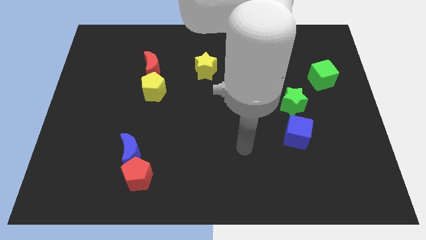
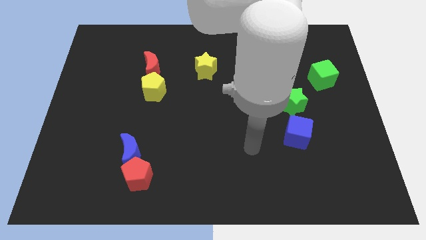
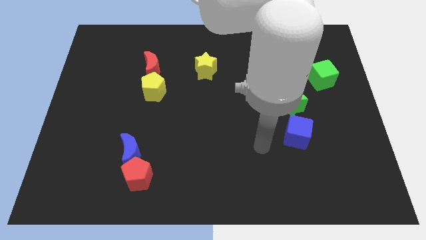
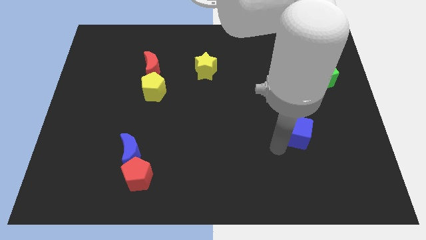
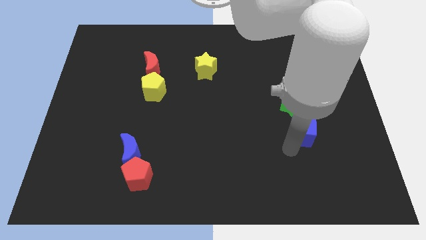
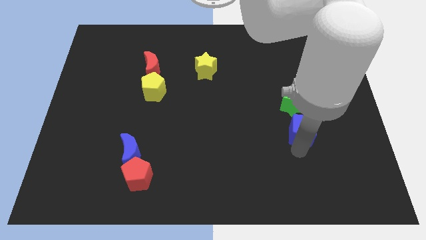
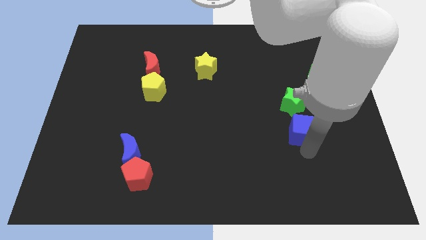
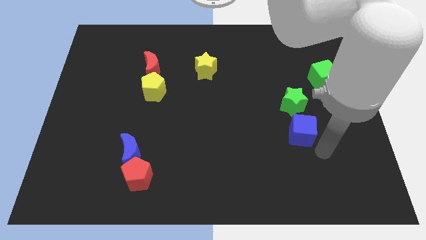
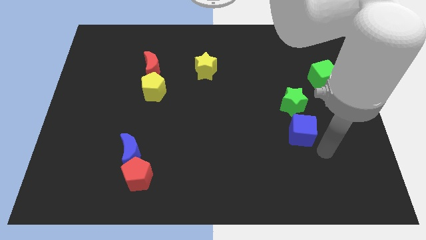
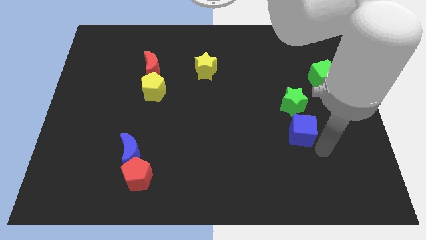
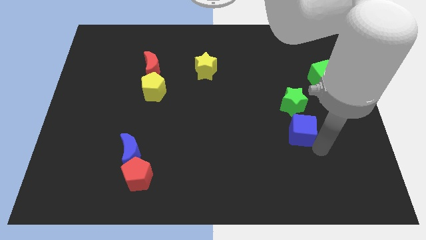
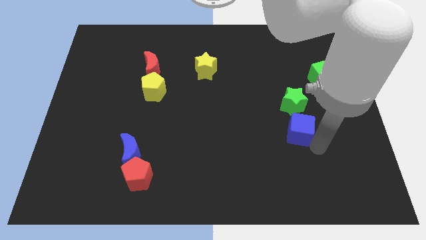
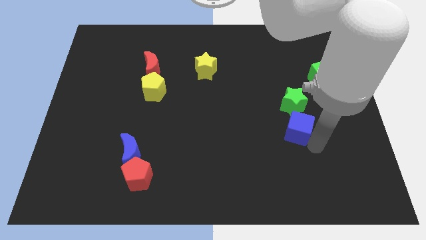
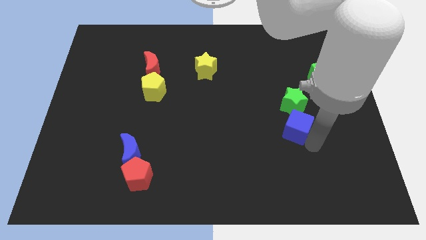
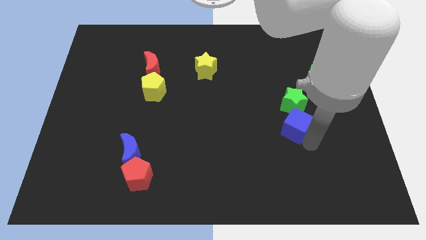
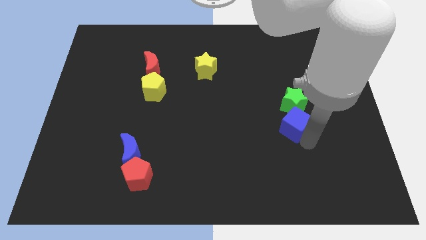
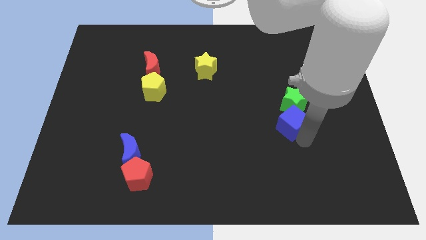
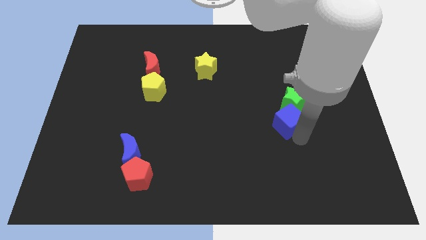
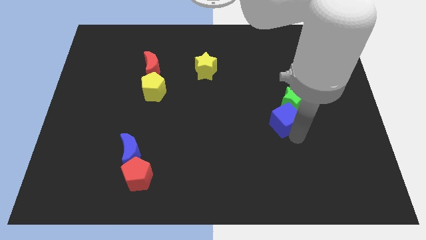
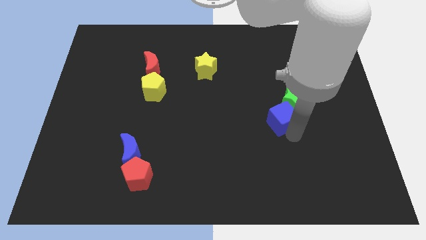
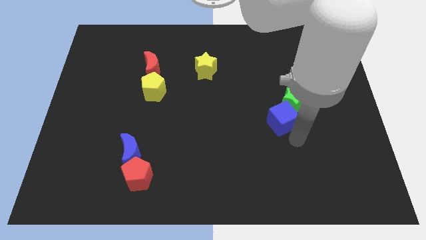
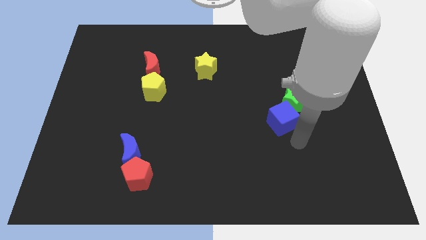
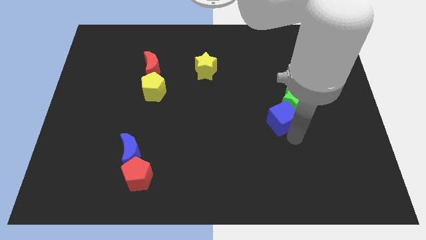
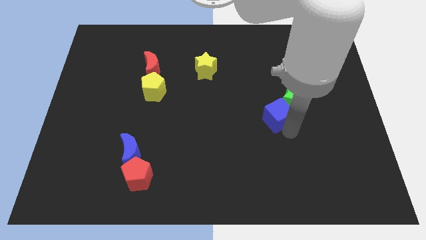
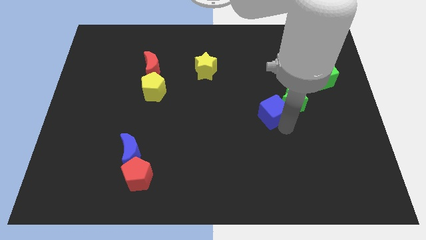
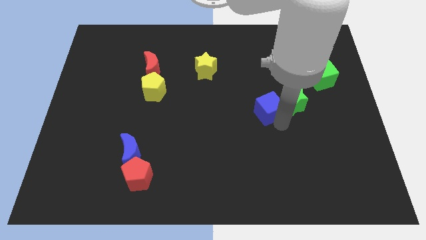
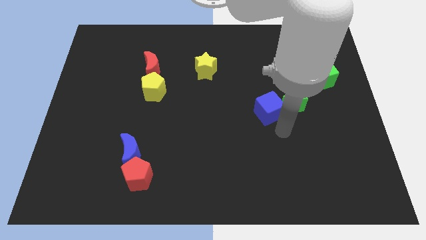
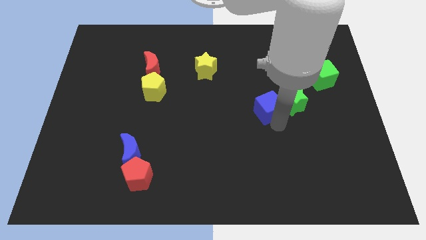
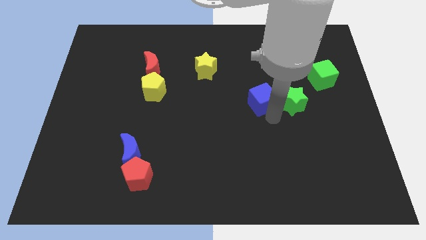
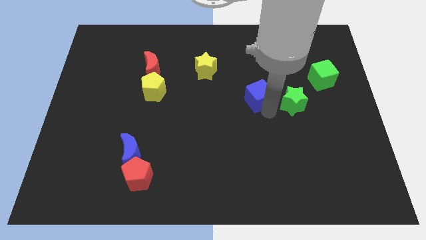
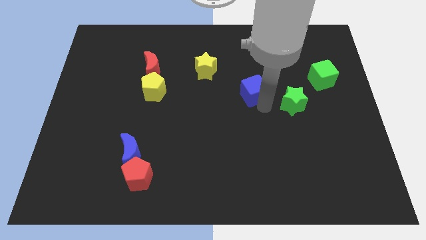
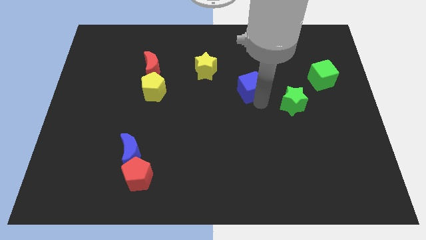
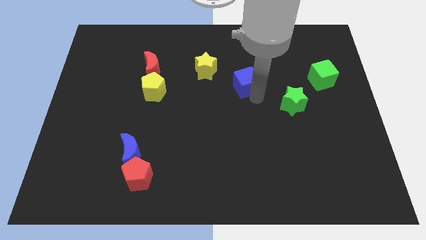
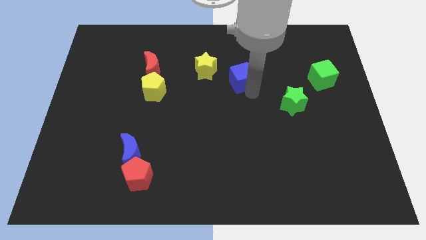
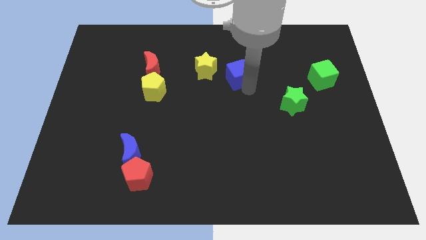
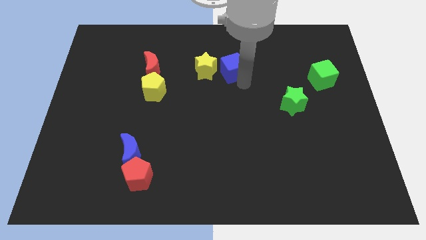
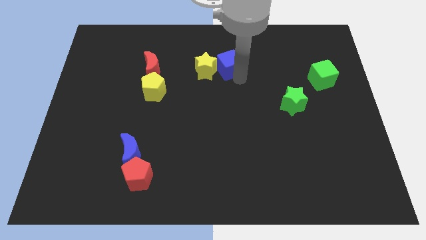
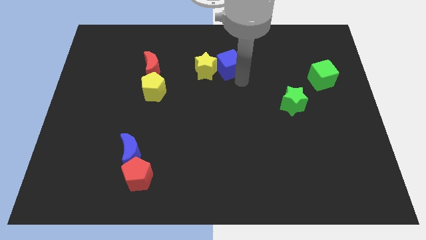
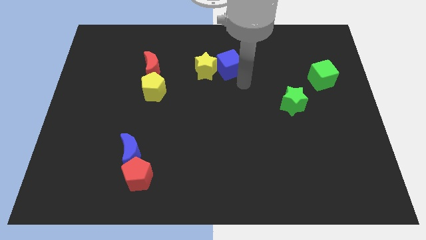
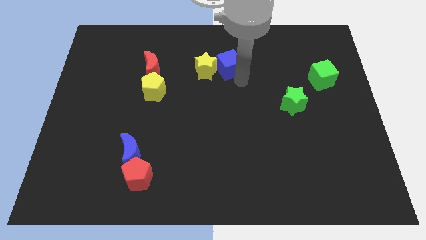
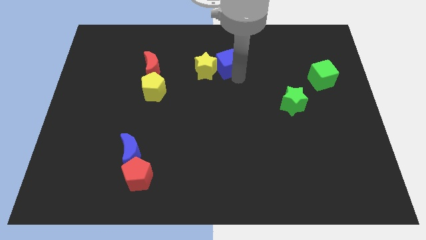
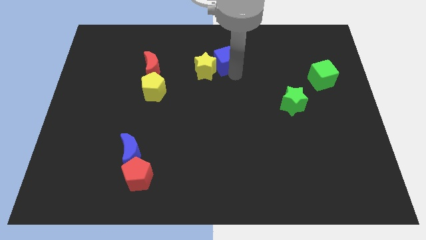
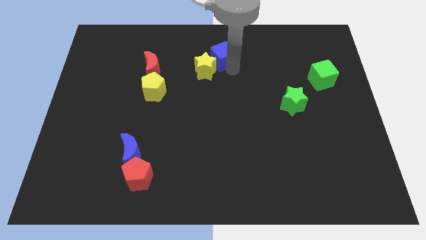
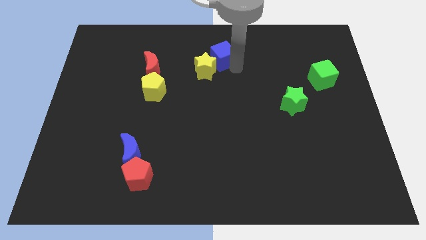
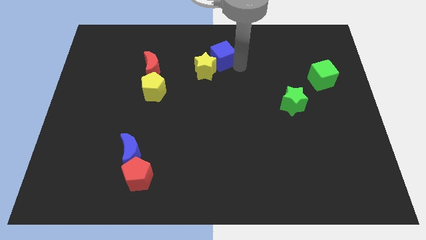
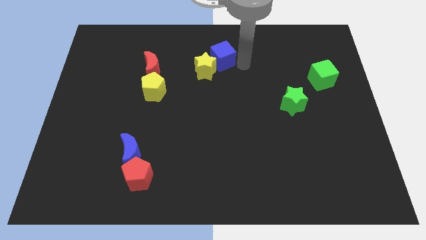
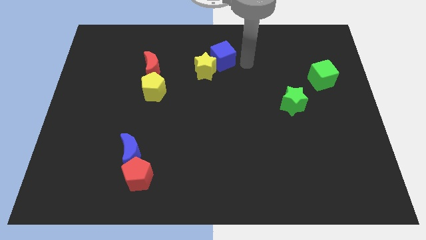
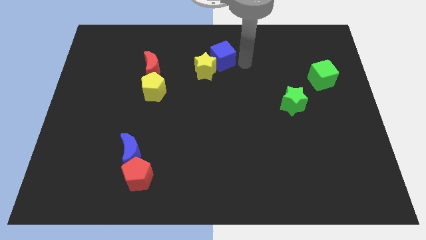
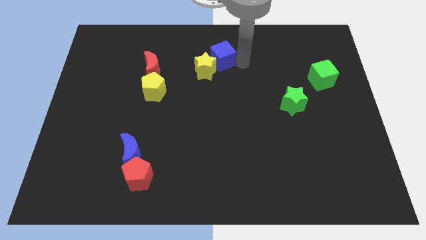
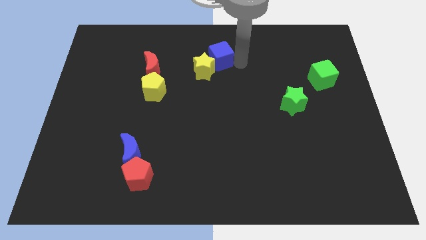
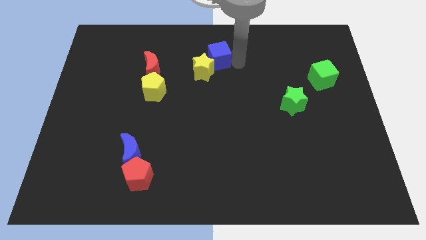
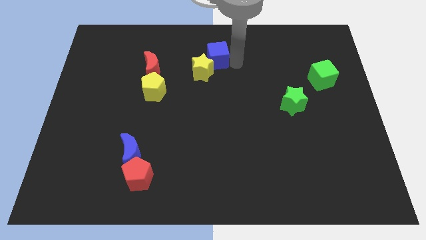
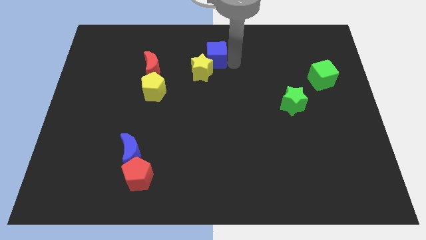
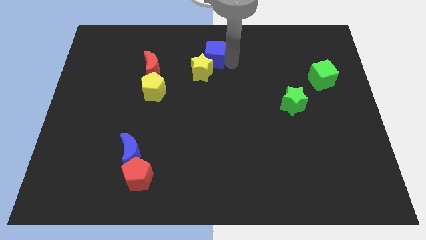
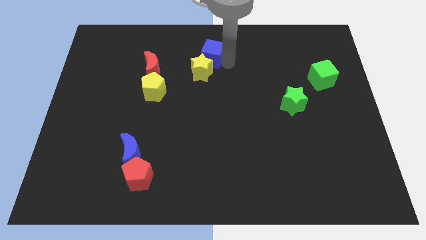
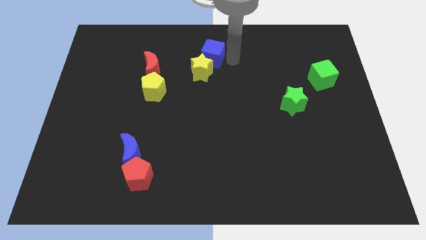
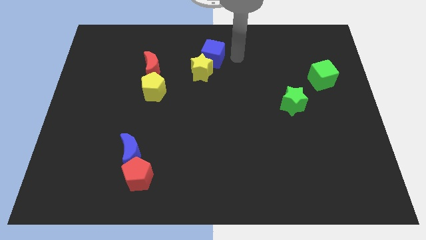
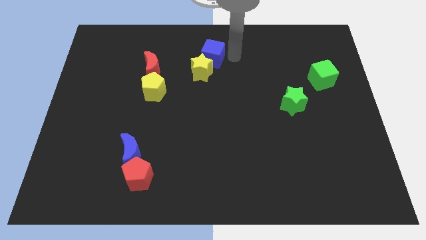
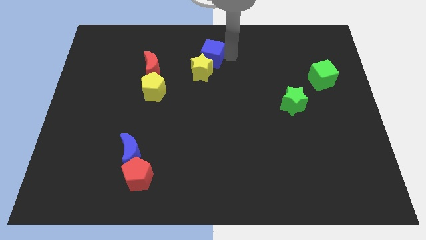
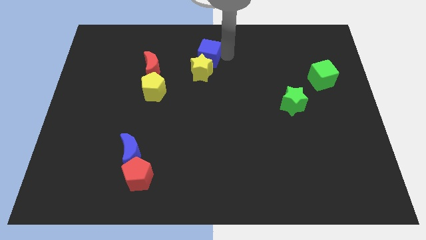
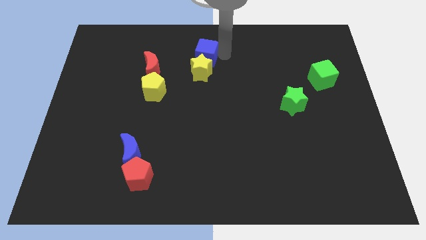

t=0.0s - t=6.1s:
put the blue cube to the top left side of the yellow star

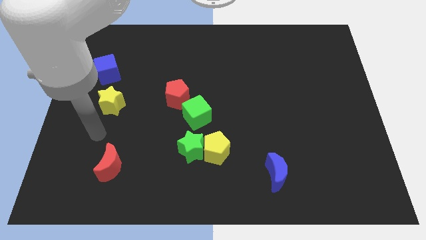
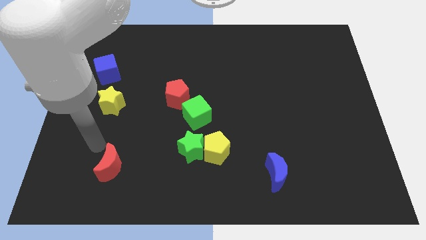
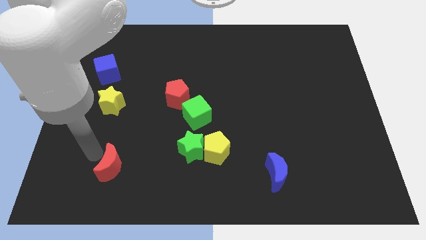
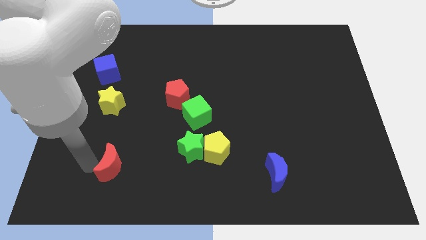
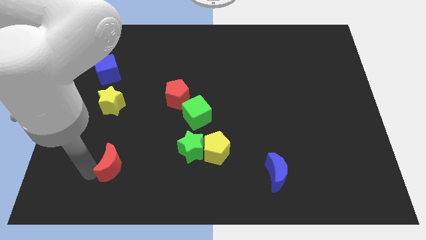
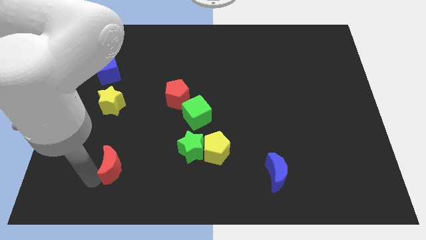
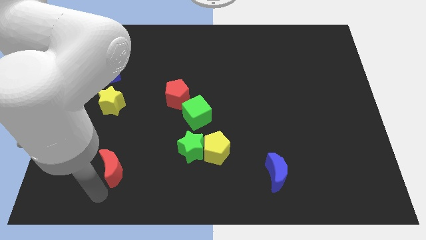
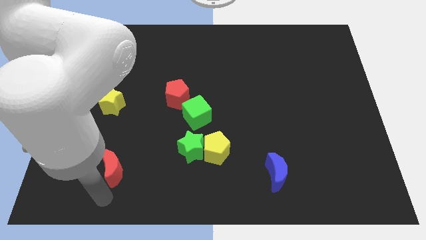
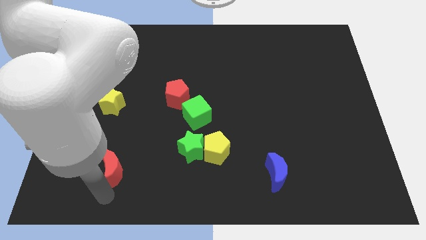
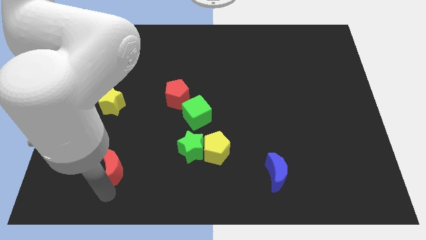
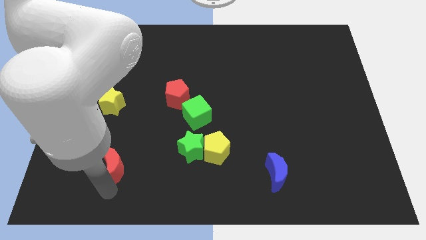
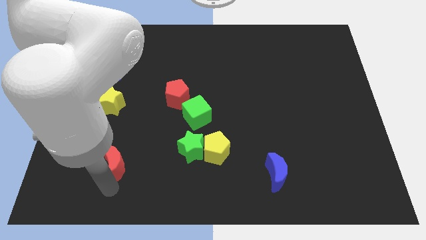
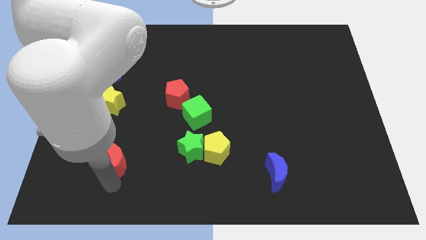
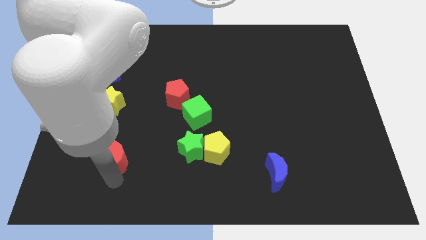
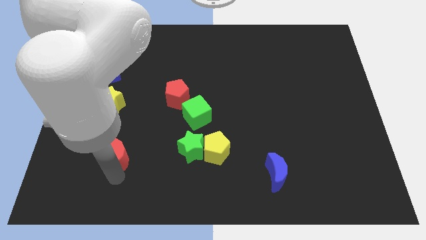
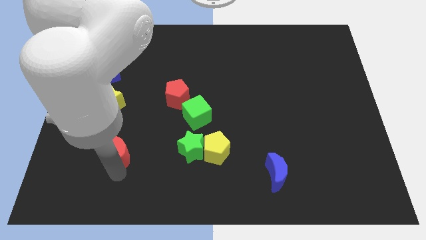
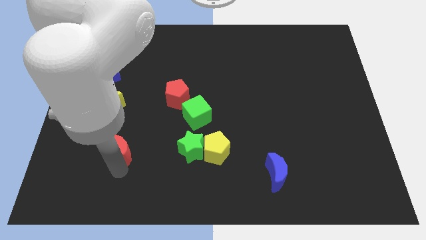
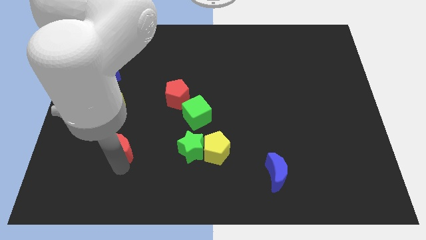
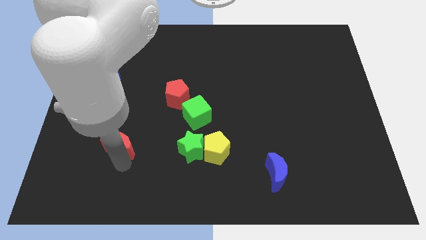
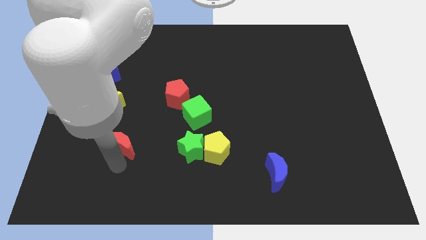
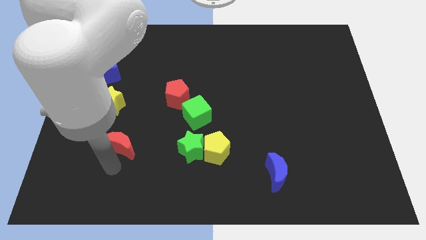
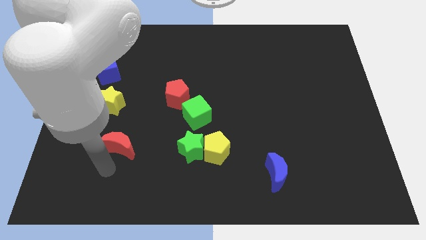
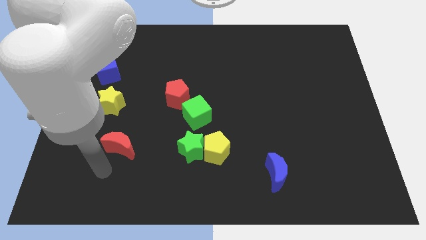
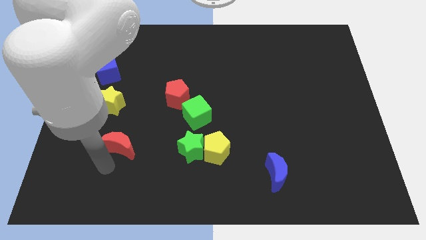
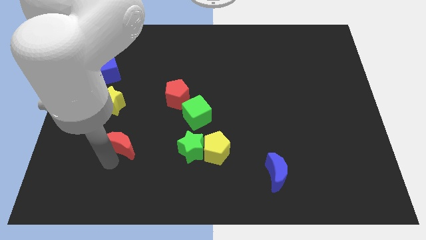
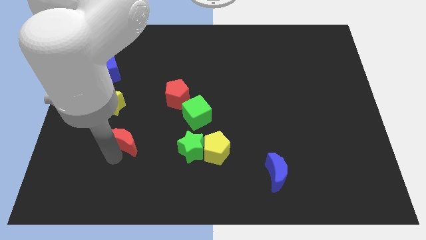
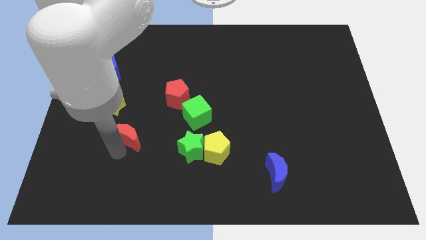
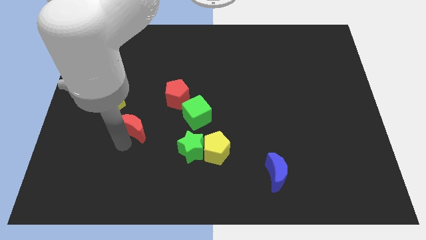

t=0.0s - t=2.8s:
put the red moon just left of the green cube
